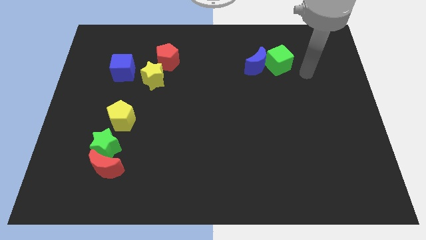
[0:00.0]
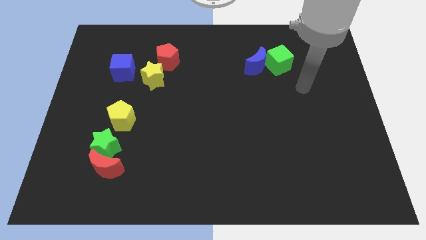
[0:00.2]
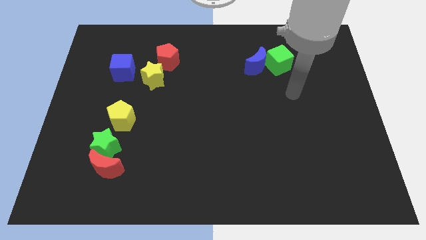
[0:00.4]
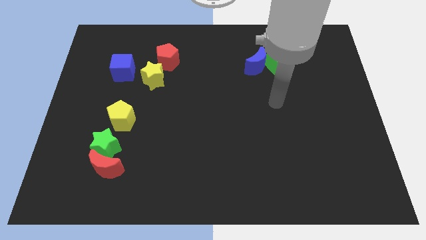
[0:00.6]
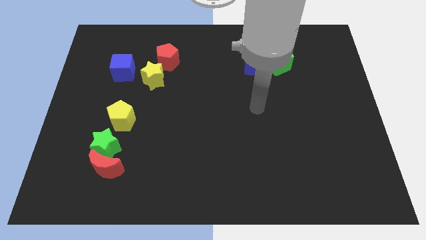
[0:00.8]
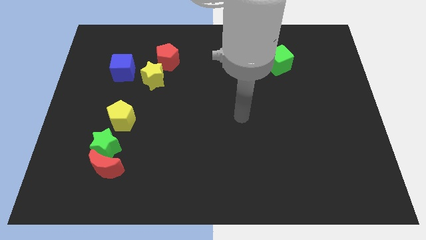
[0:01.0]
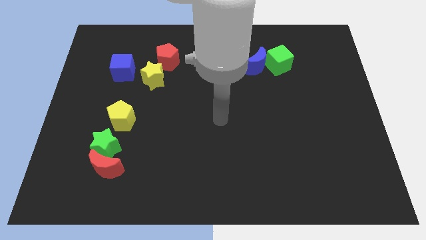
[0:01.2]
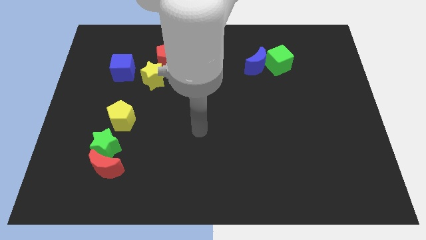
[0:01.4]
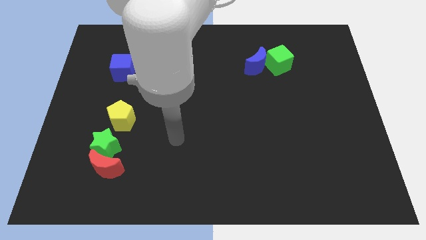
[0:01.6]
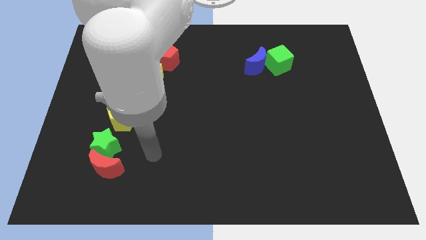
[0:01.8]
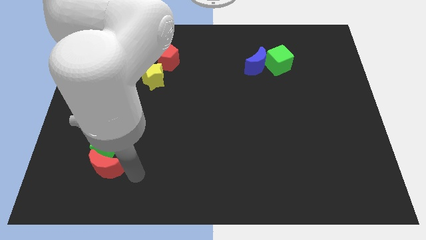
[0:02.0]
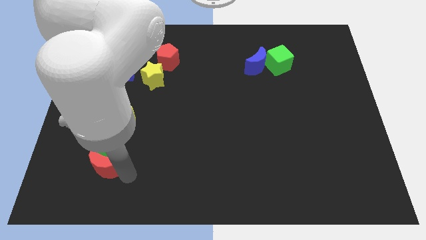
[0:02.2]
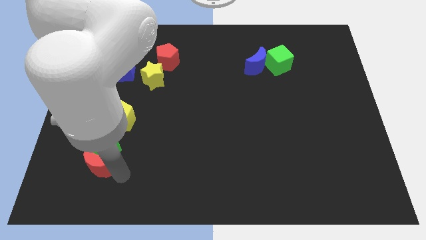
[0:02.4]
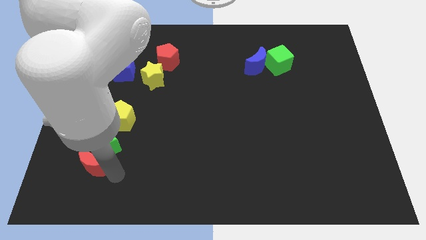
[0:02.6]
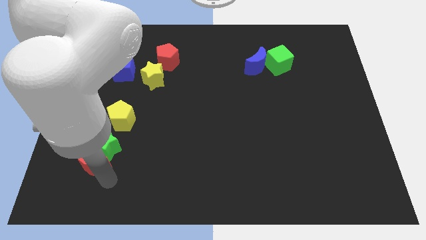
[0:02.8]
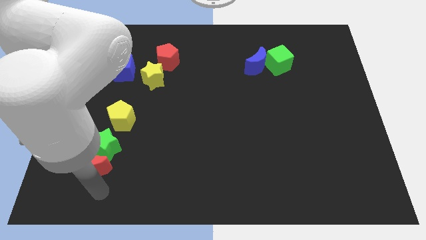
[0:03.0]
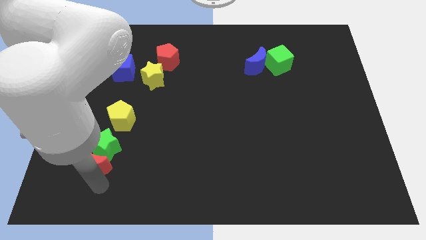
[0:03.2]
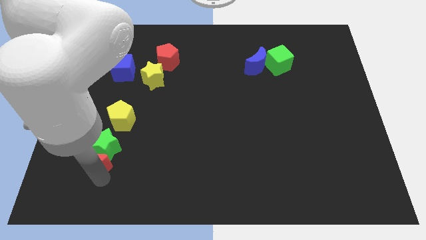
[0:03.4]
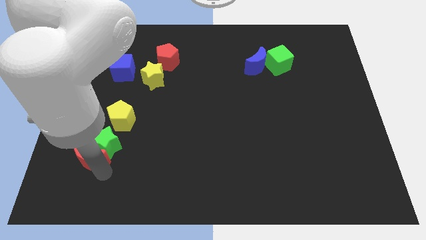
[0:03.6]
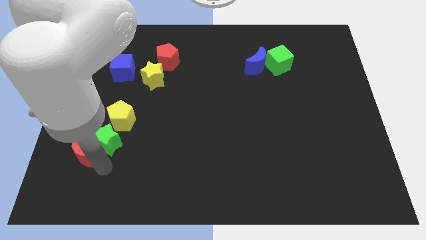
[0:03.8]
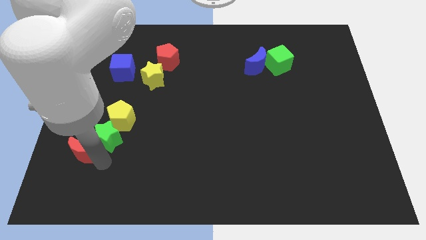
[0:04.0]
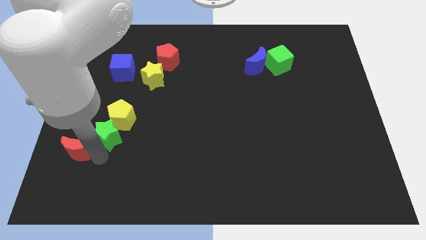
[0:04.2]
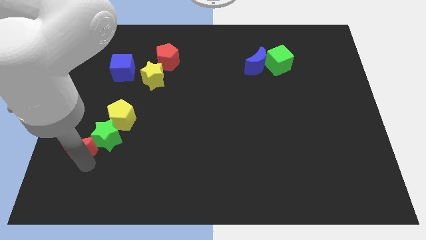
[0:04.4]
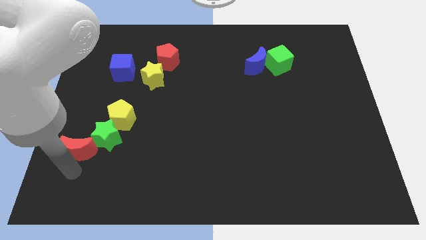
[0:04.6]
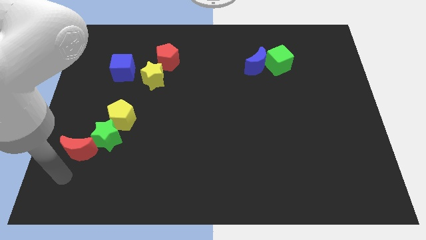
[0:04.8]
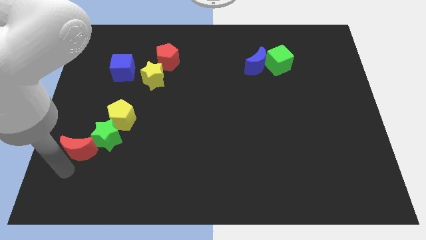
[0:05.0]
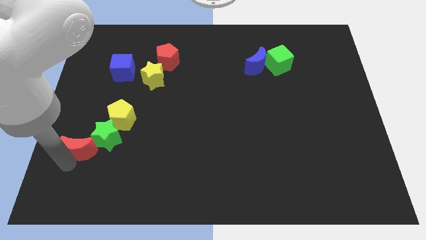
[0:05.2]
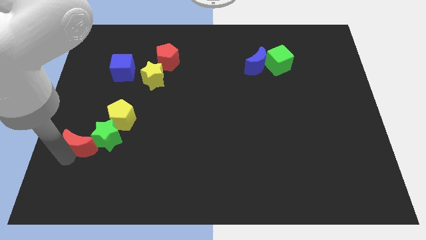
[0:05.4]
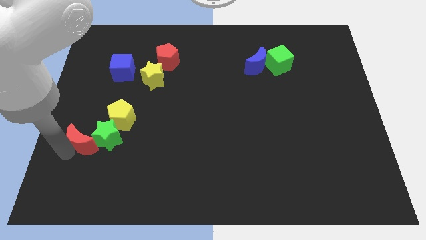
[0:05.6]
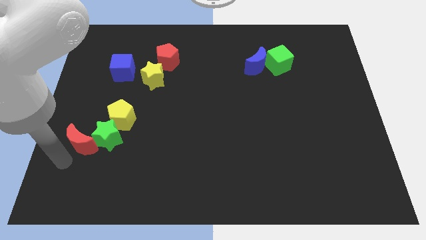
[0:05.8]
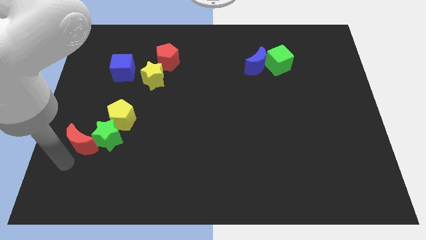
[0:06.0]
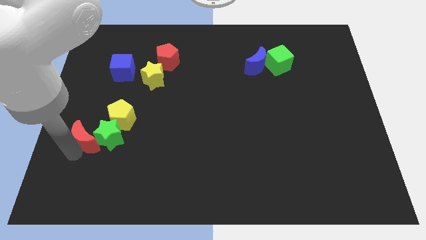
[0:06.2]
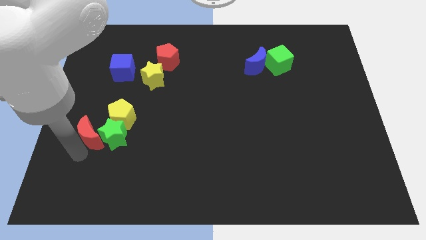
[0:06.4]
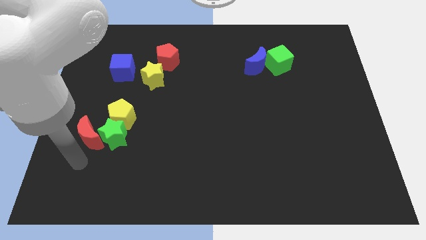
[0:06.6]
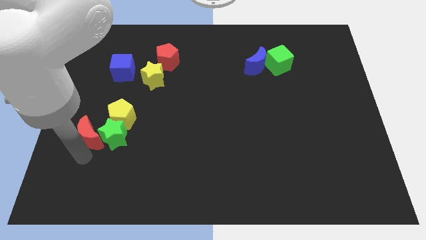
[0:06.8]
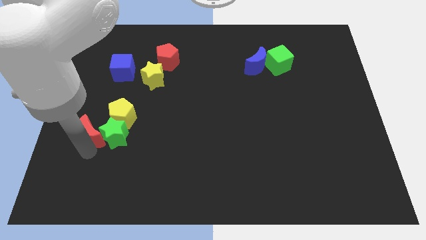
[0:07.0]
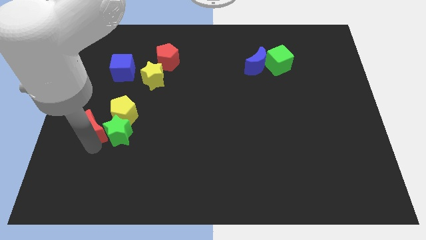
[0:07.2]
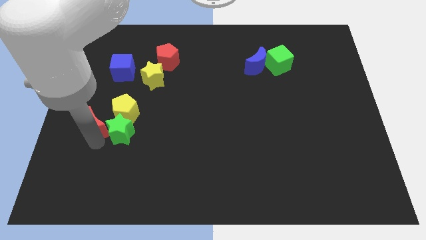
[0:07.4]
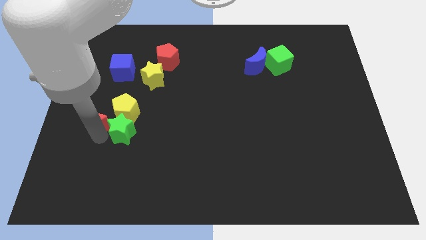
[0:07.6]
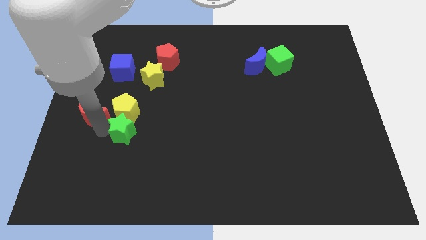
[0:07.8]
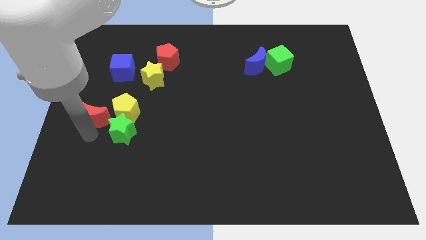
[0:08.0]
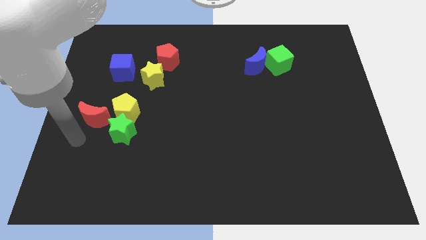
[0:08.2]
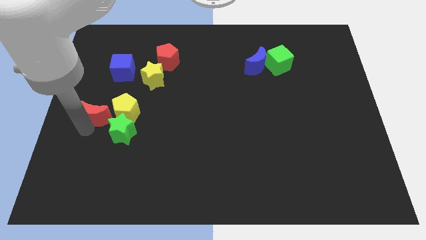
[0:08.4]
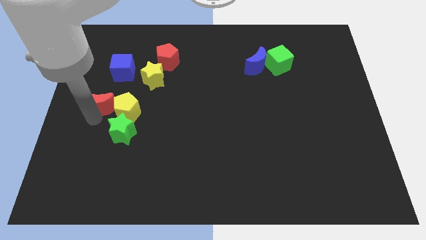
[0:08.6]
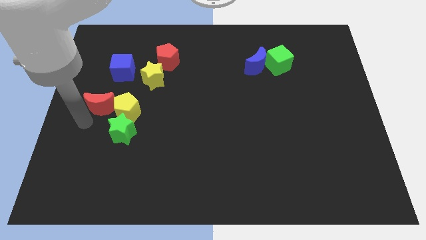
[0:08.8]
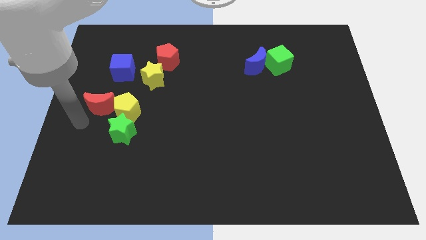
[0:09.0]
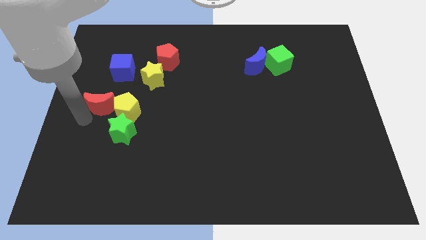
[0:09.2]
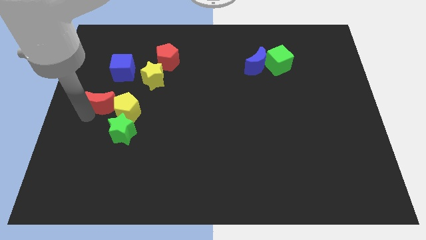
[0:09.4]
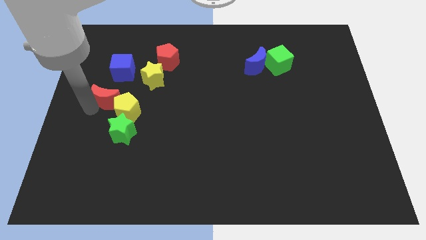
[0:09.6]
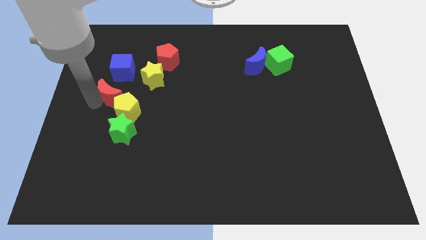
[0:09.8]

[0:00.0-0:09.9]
slide the red moon above the yellow pentagon

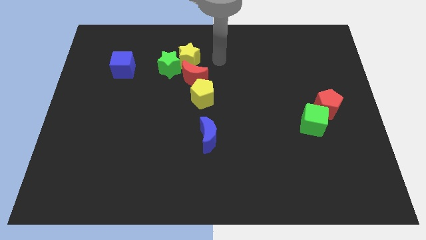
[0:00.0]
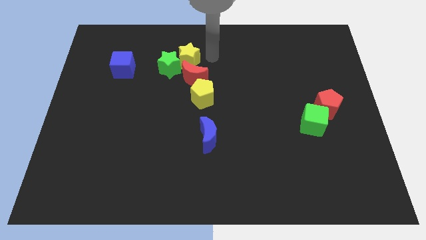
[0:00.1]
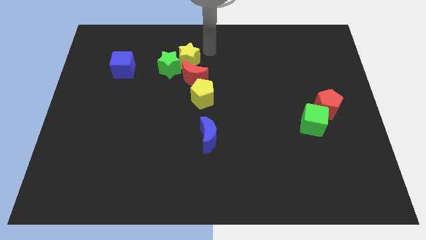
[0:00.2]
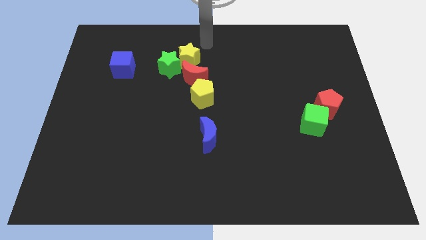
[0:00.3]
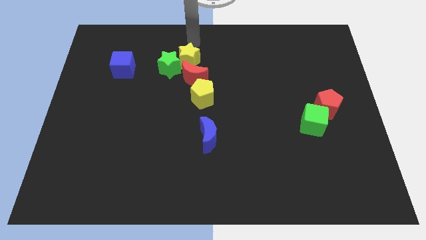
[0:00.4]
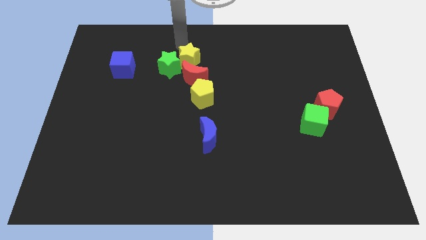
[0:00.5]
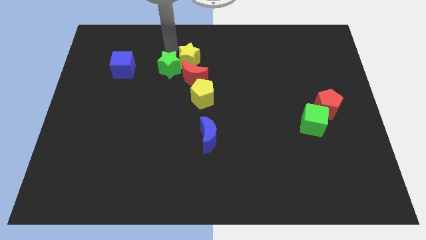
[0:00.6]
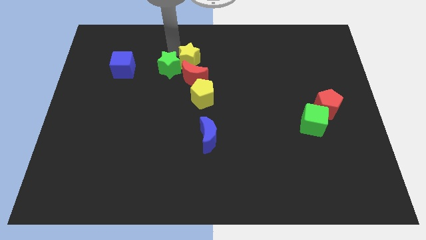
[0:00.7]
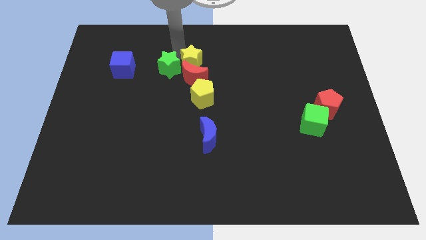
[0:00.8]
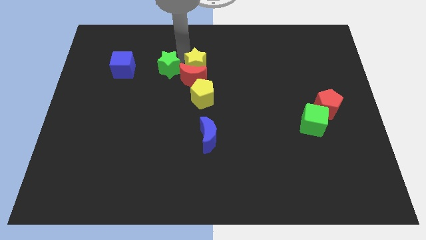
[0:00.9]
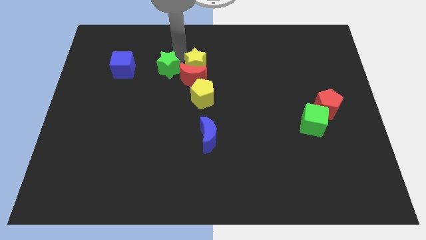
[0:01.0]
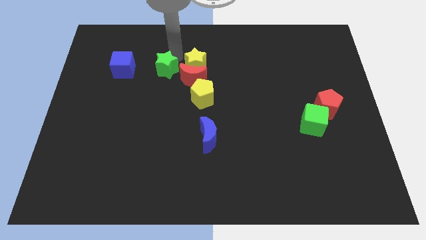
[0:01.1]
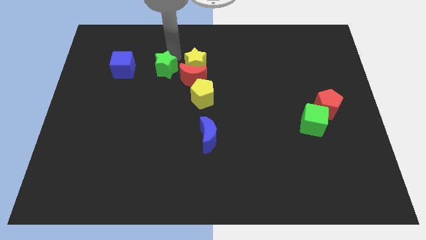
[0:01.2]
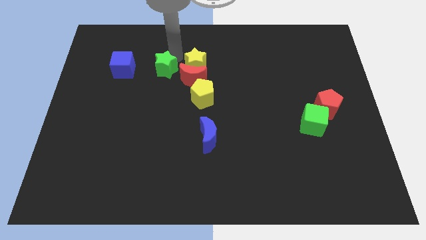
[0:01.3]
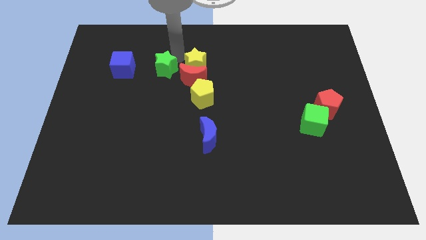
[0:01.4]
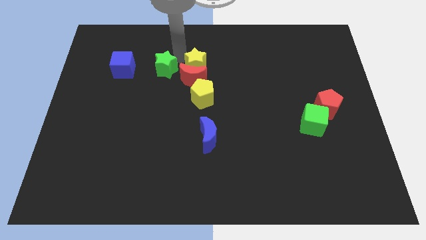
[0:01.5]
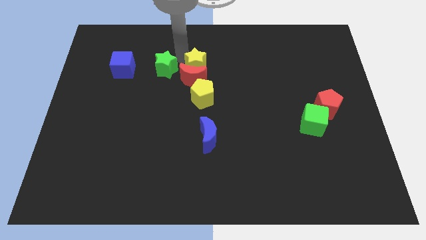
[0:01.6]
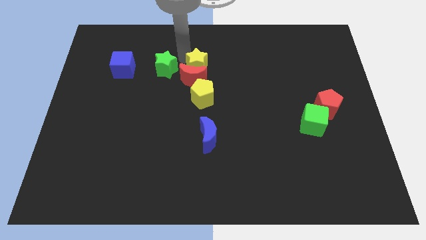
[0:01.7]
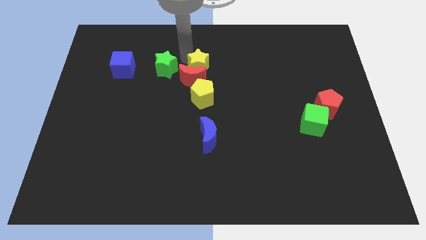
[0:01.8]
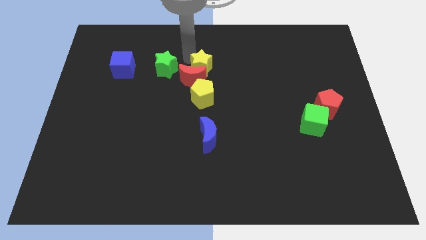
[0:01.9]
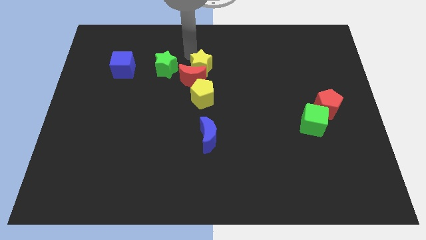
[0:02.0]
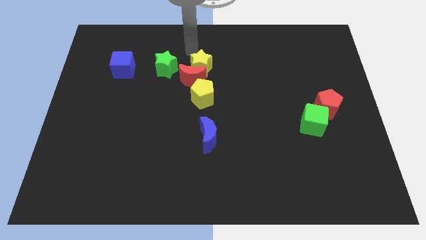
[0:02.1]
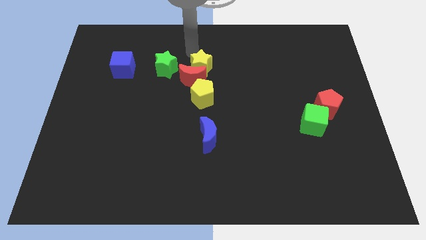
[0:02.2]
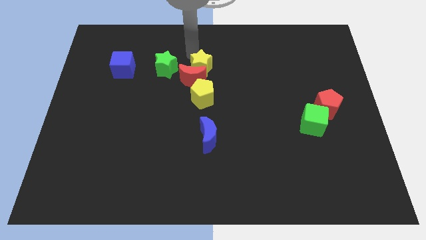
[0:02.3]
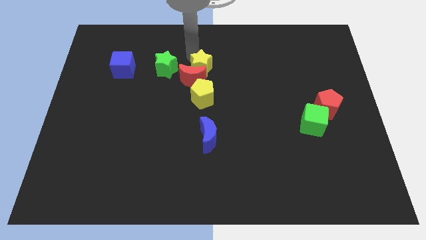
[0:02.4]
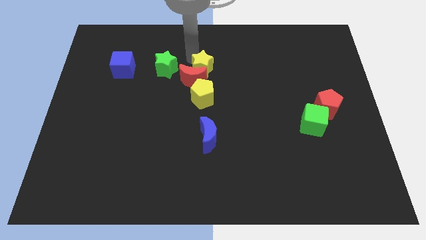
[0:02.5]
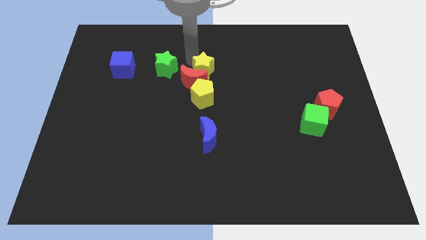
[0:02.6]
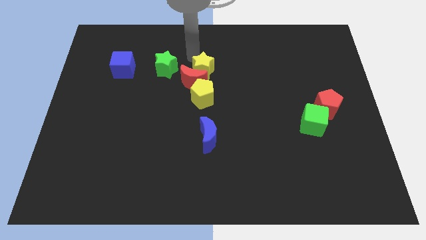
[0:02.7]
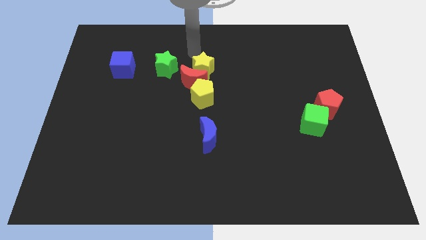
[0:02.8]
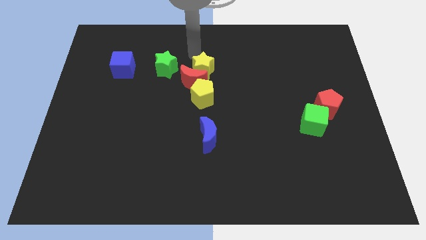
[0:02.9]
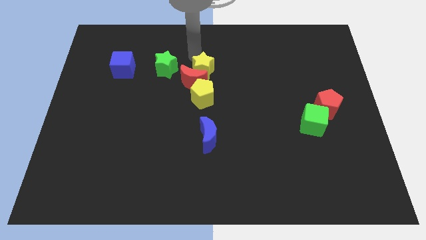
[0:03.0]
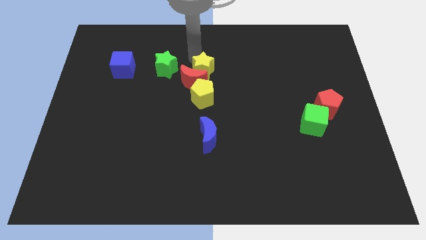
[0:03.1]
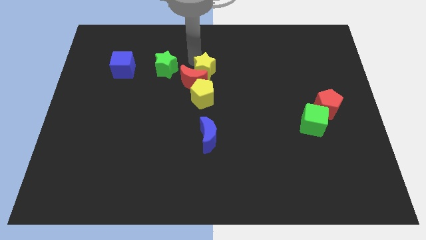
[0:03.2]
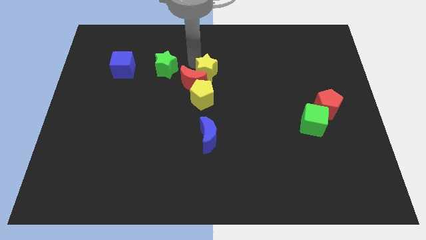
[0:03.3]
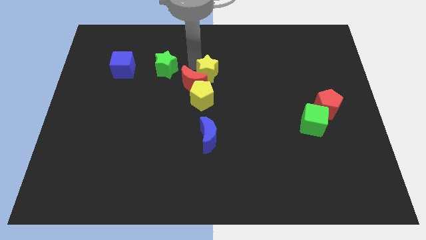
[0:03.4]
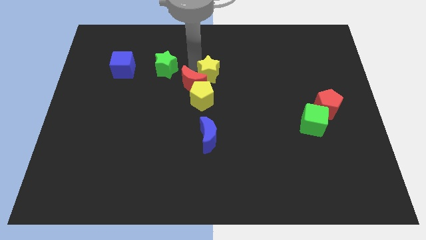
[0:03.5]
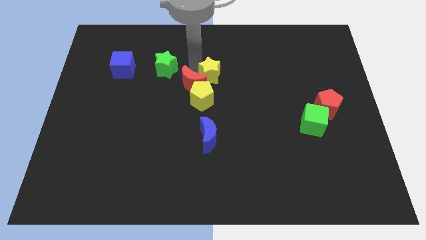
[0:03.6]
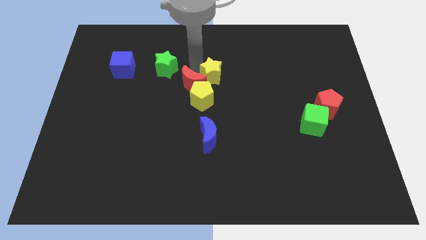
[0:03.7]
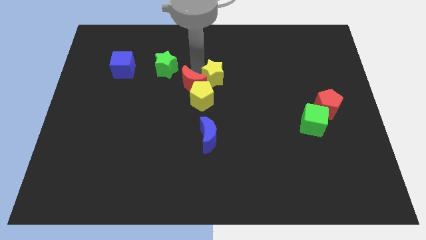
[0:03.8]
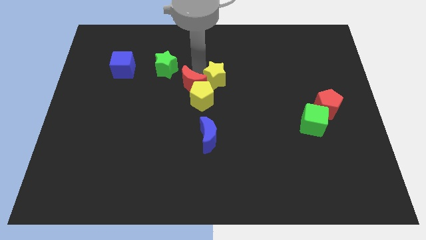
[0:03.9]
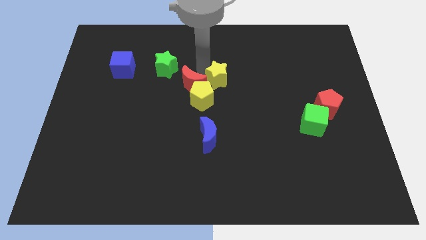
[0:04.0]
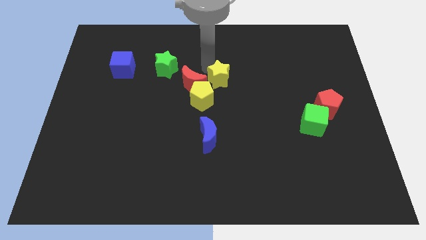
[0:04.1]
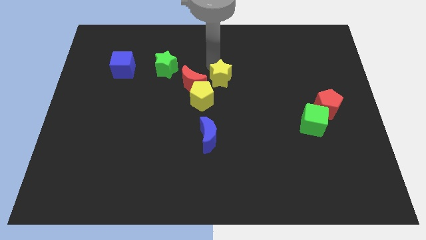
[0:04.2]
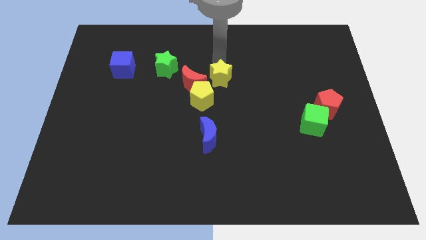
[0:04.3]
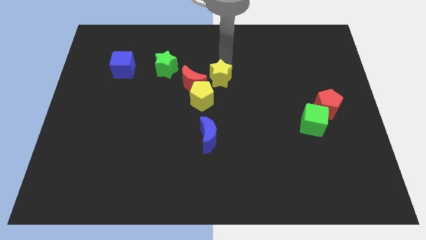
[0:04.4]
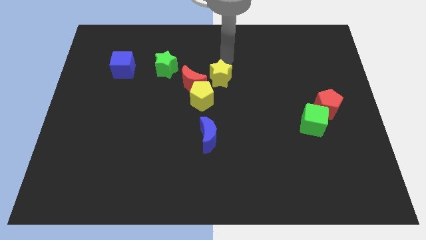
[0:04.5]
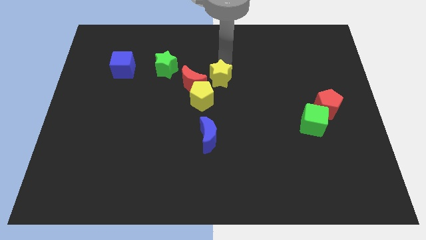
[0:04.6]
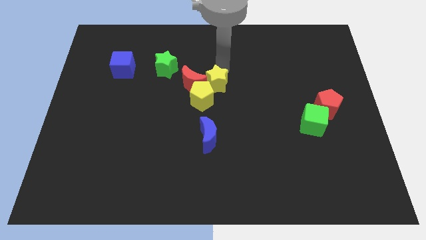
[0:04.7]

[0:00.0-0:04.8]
put the yellow star above the blue moon
